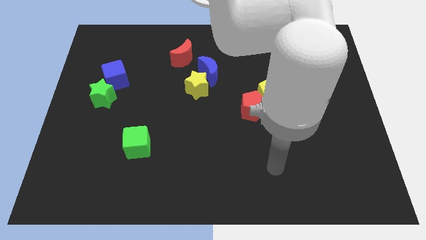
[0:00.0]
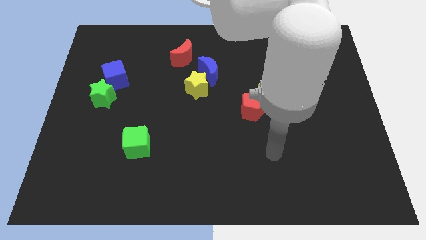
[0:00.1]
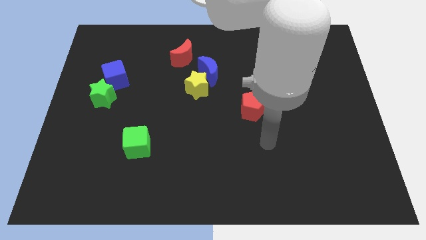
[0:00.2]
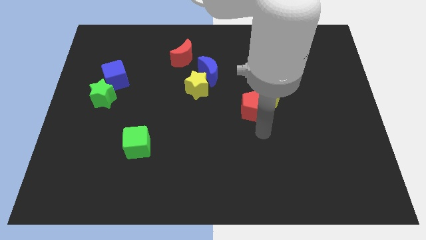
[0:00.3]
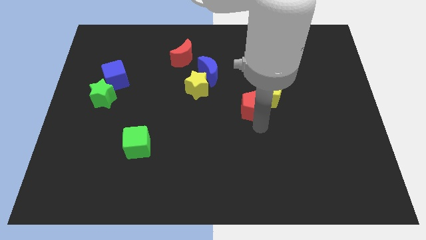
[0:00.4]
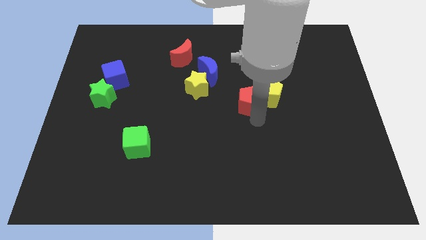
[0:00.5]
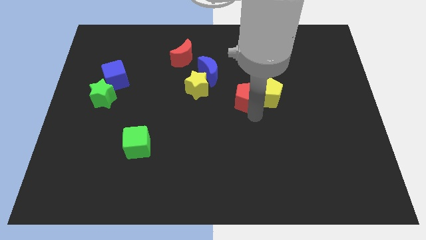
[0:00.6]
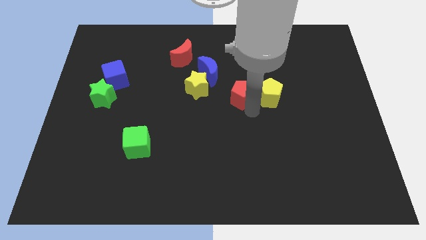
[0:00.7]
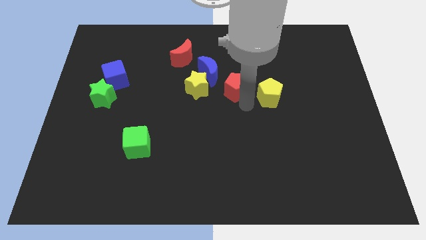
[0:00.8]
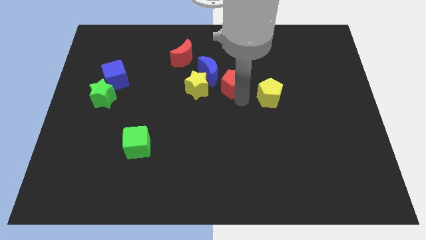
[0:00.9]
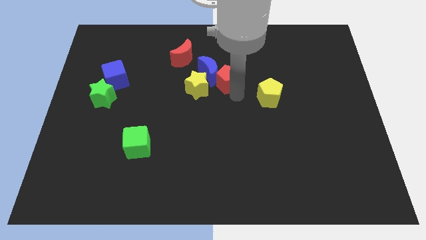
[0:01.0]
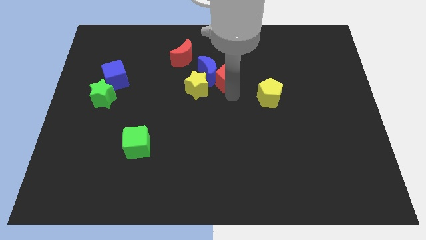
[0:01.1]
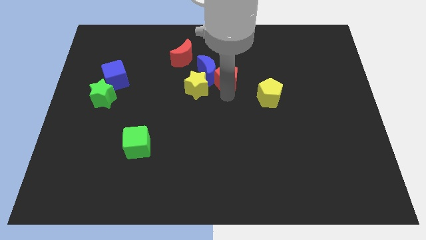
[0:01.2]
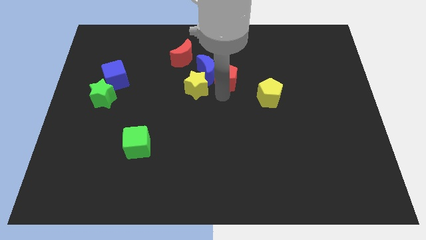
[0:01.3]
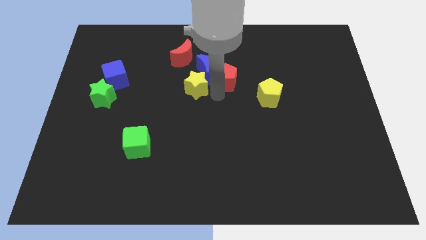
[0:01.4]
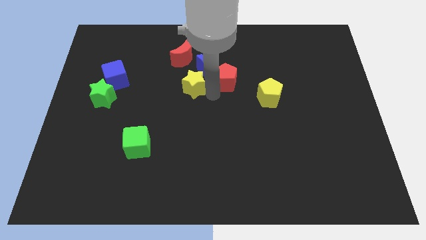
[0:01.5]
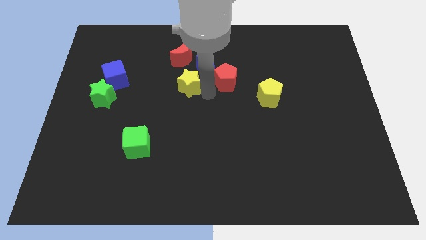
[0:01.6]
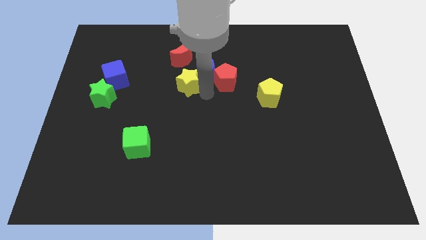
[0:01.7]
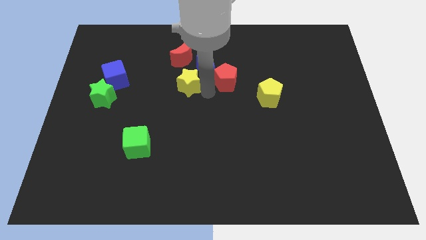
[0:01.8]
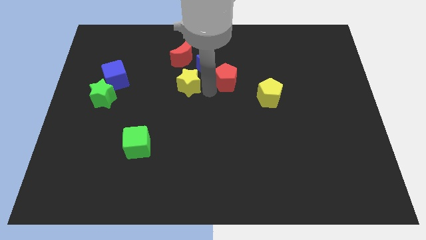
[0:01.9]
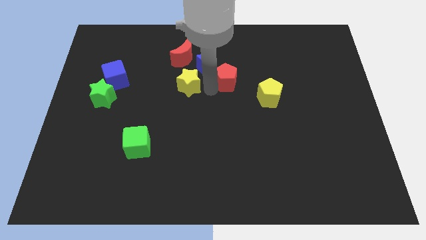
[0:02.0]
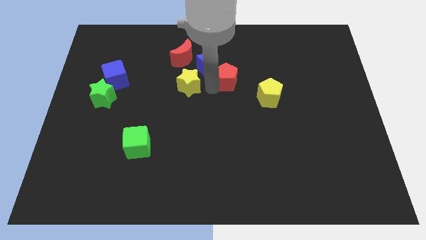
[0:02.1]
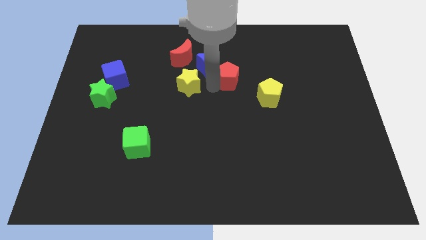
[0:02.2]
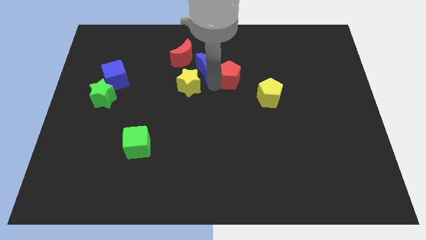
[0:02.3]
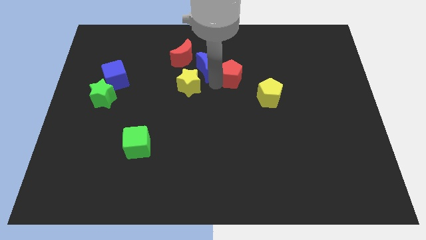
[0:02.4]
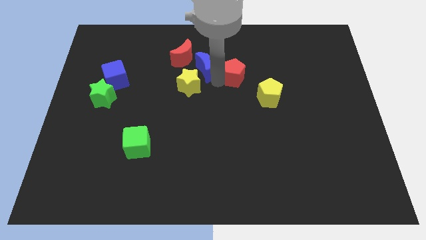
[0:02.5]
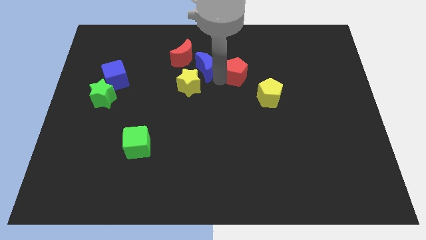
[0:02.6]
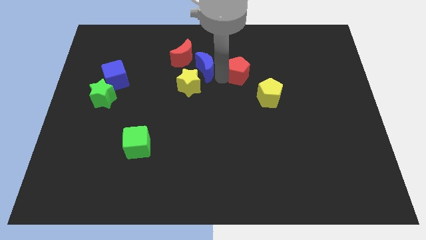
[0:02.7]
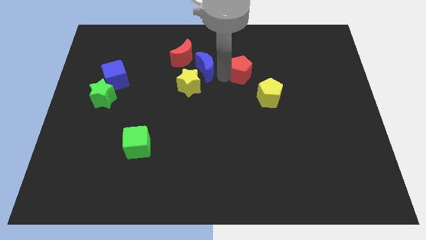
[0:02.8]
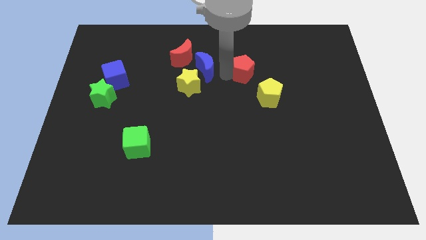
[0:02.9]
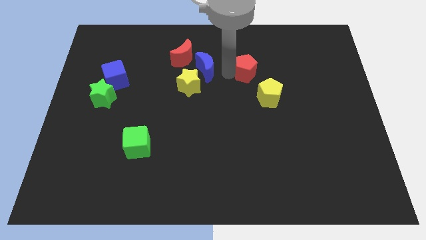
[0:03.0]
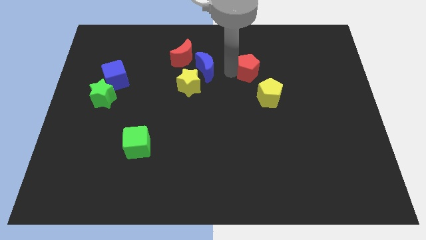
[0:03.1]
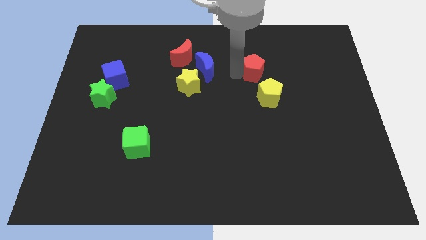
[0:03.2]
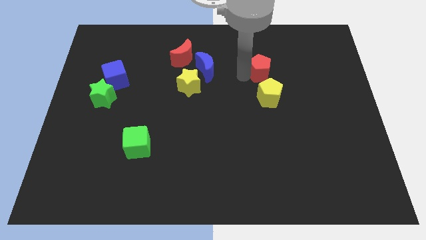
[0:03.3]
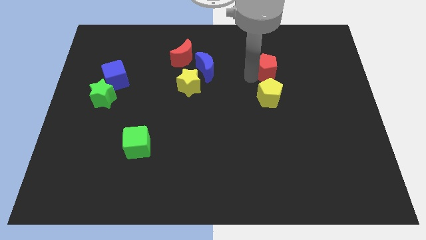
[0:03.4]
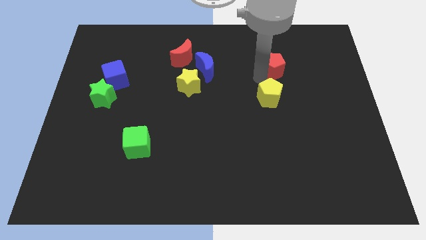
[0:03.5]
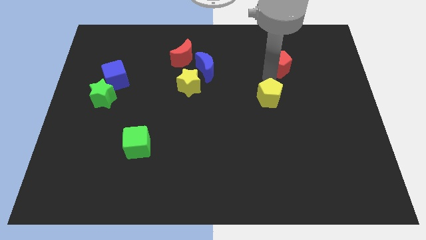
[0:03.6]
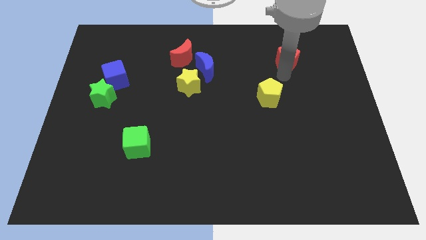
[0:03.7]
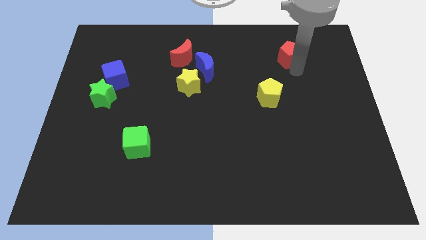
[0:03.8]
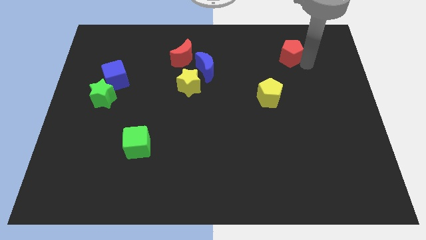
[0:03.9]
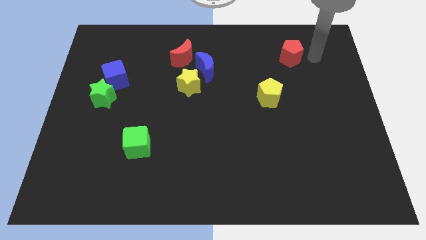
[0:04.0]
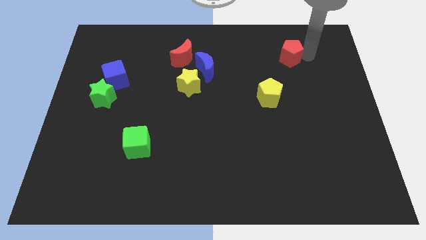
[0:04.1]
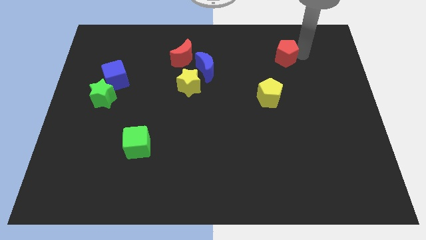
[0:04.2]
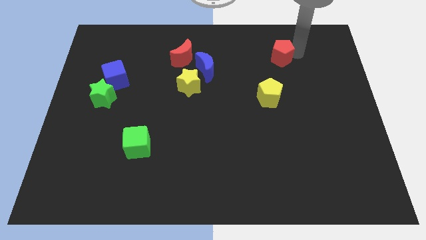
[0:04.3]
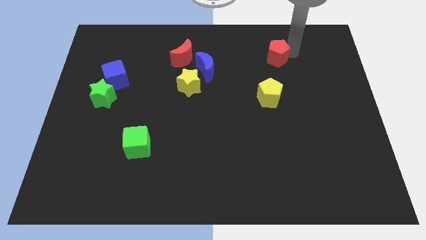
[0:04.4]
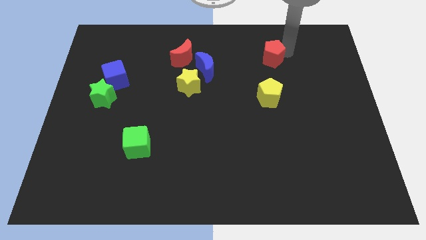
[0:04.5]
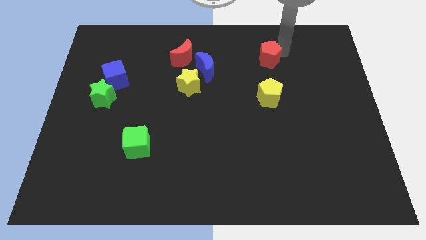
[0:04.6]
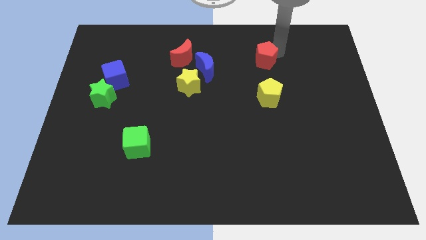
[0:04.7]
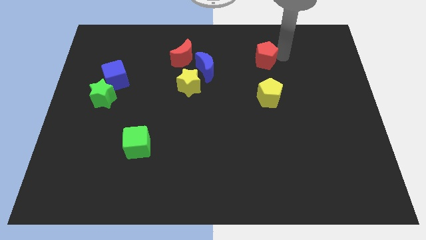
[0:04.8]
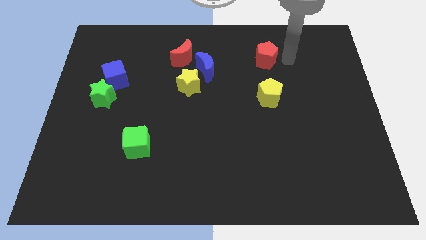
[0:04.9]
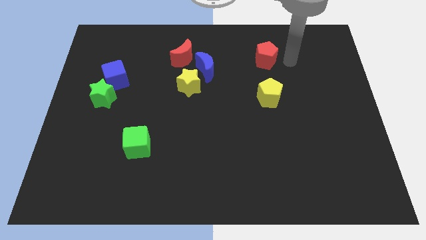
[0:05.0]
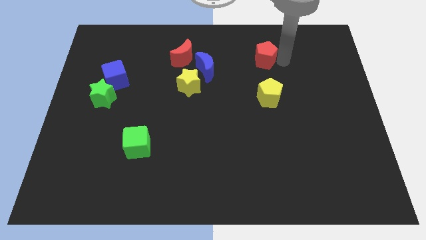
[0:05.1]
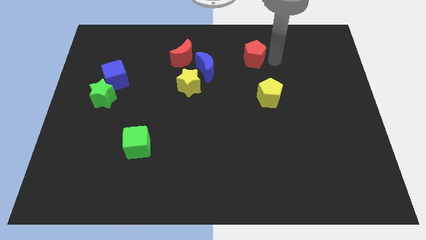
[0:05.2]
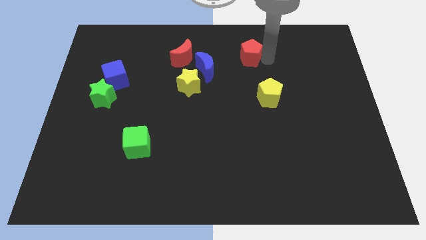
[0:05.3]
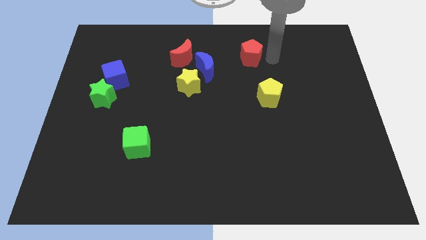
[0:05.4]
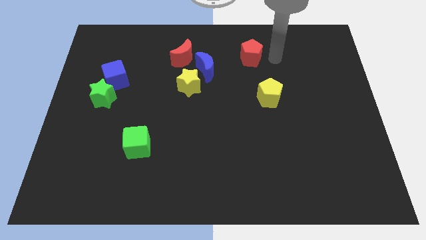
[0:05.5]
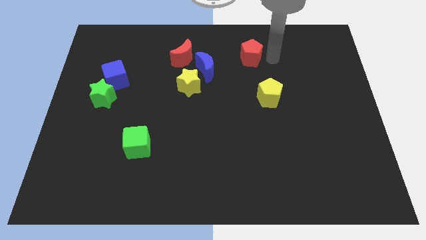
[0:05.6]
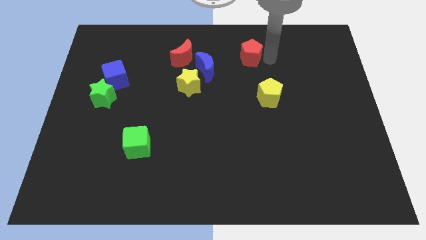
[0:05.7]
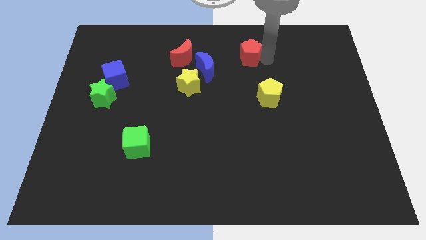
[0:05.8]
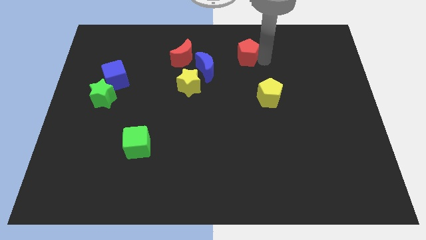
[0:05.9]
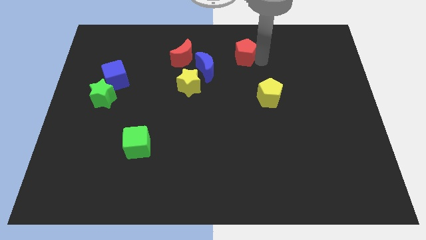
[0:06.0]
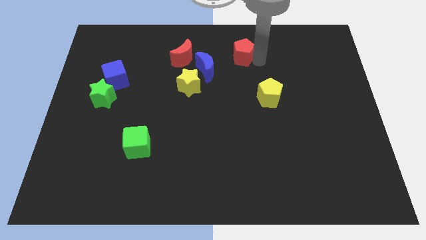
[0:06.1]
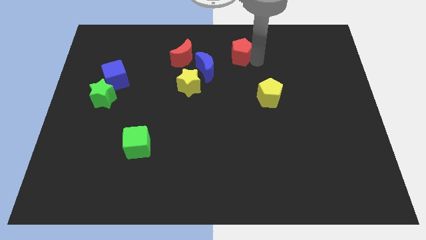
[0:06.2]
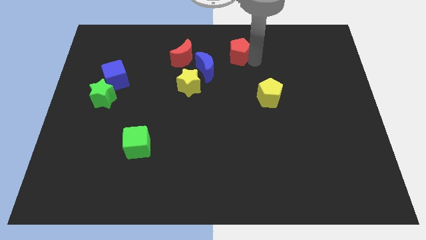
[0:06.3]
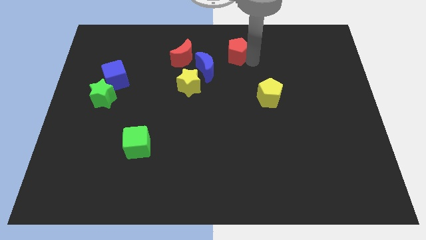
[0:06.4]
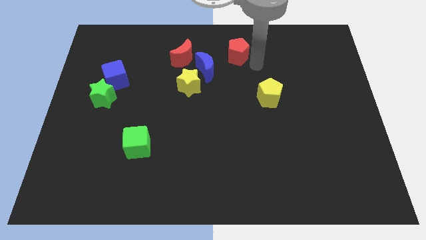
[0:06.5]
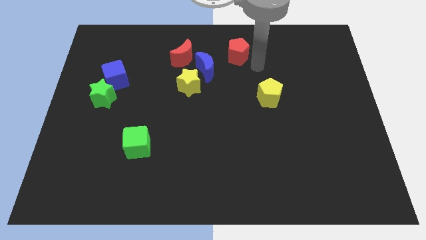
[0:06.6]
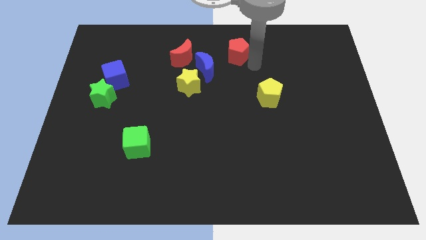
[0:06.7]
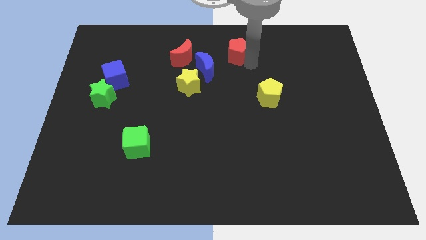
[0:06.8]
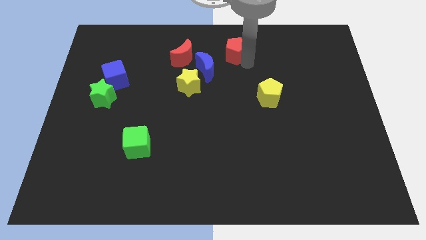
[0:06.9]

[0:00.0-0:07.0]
push the red pentagon to the top side
